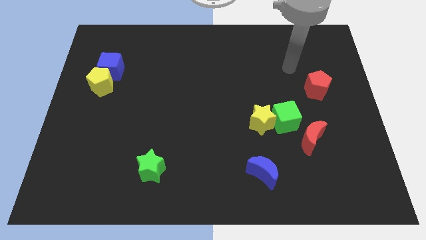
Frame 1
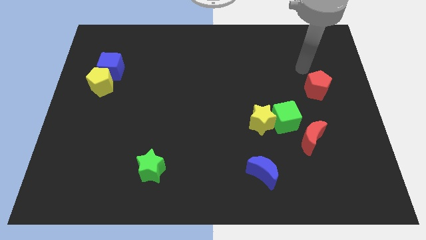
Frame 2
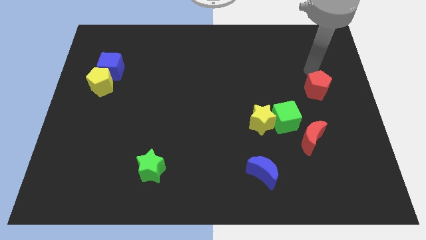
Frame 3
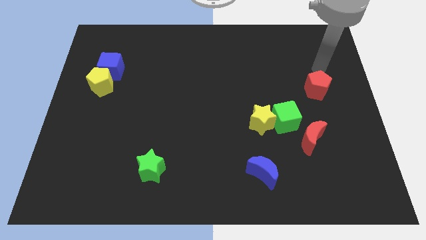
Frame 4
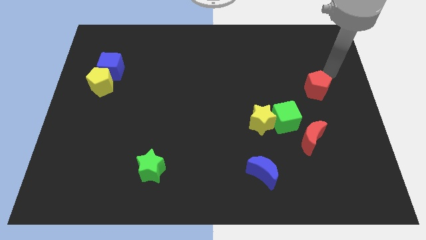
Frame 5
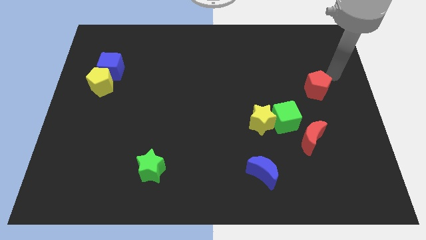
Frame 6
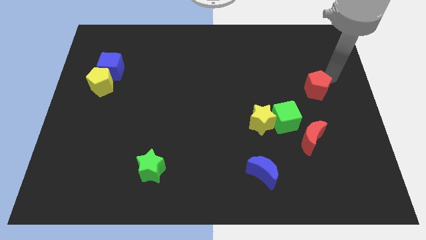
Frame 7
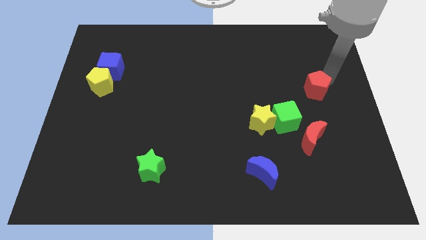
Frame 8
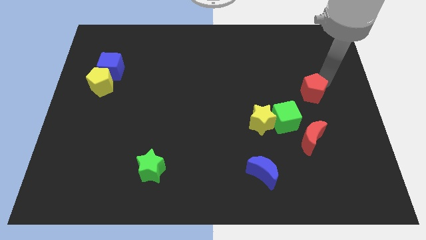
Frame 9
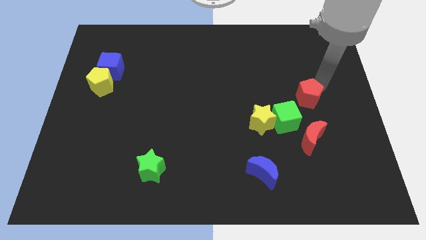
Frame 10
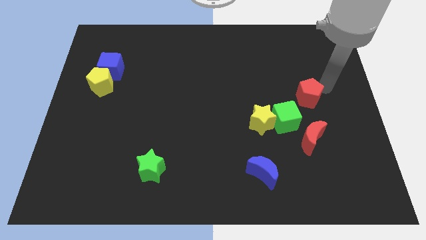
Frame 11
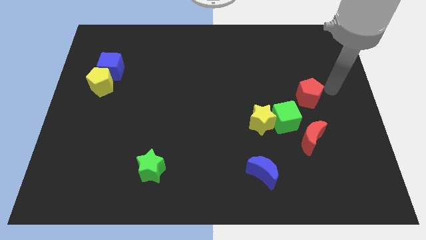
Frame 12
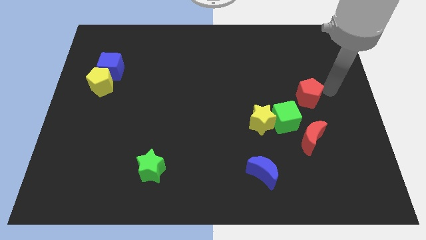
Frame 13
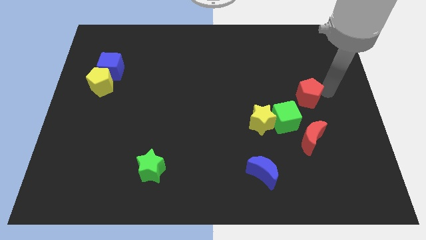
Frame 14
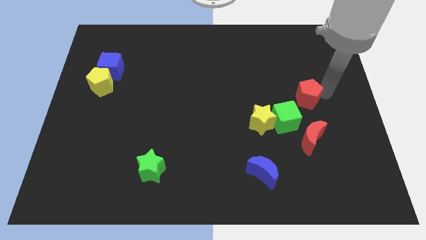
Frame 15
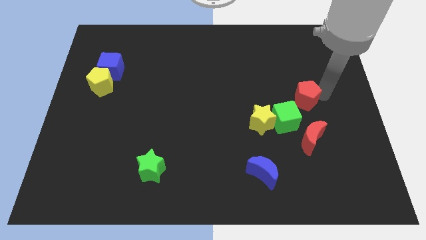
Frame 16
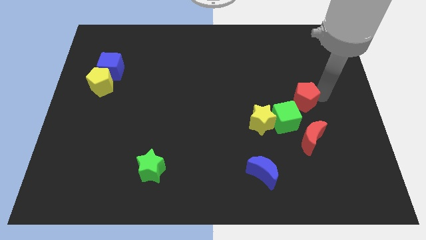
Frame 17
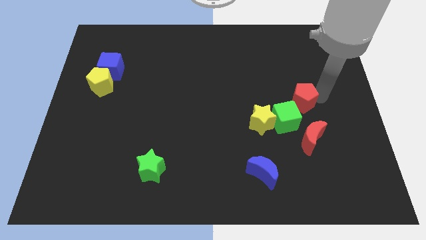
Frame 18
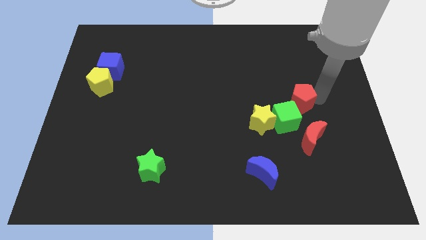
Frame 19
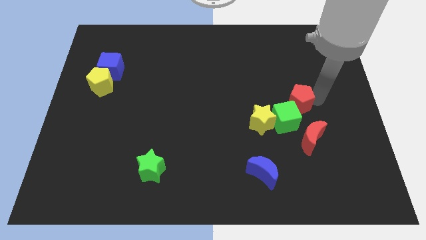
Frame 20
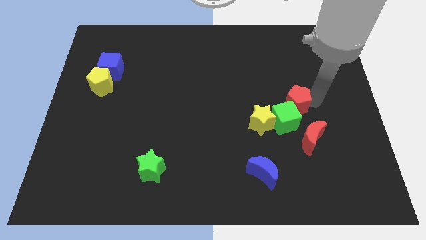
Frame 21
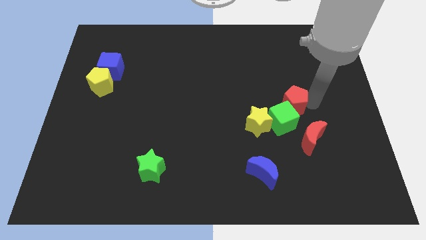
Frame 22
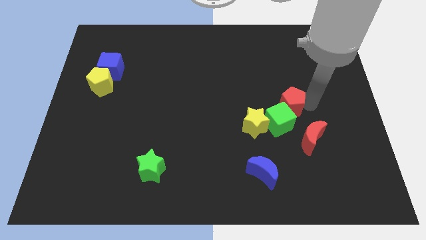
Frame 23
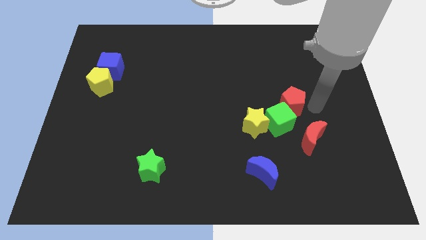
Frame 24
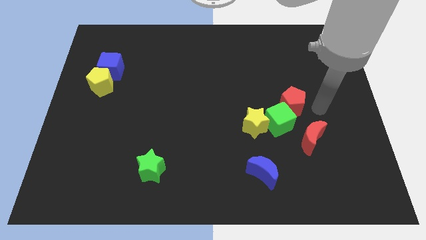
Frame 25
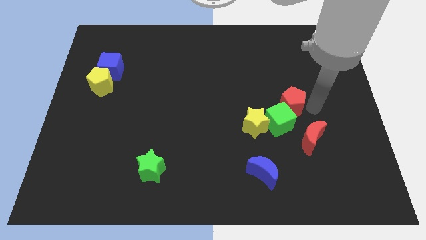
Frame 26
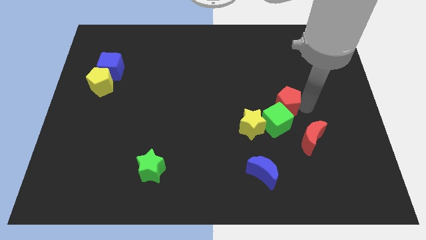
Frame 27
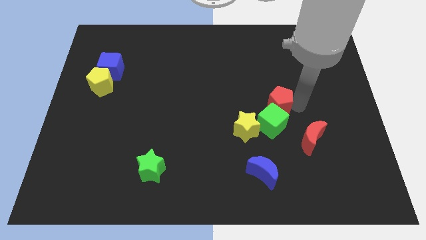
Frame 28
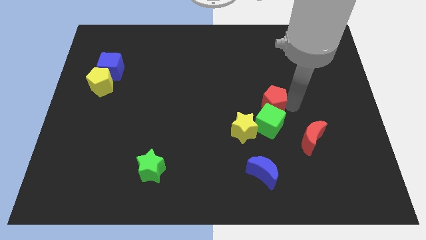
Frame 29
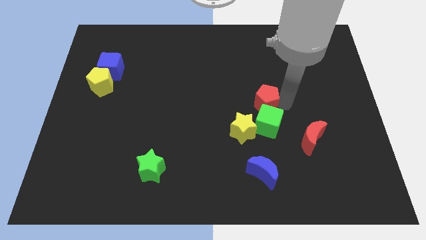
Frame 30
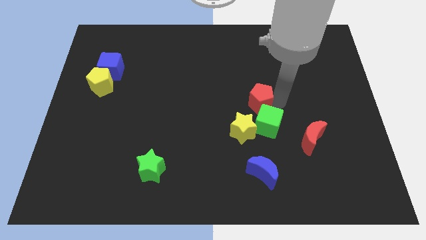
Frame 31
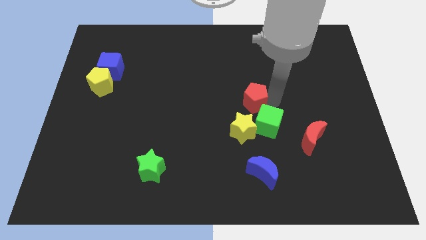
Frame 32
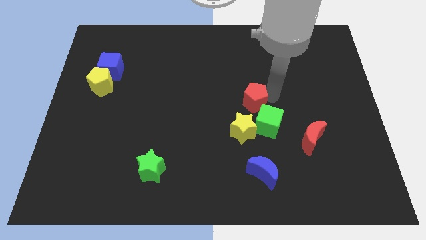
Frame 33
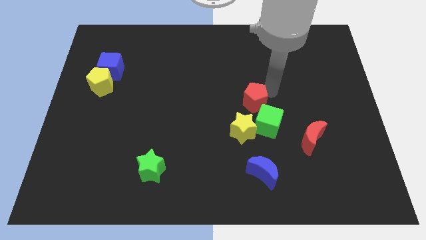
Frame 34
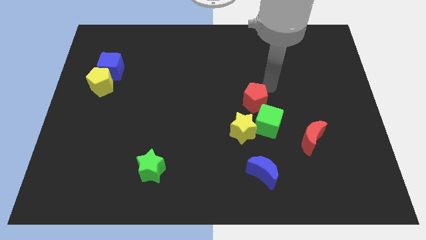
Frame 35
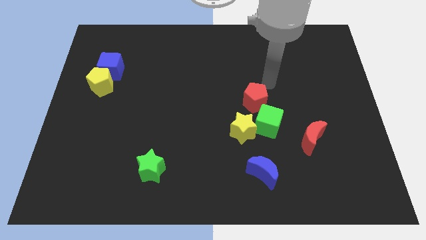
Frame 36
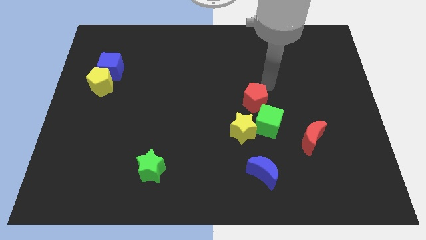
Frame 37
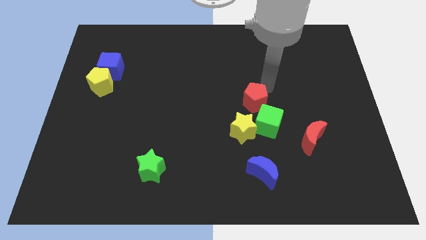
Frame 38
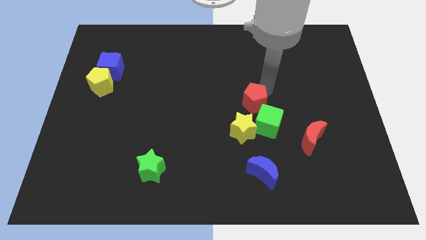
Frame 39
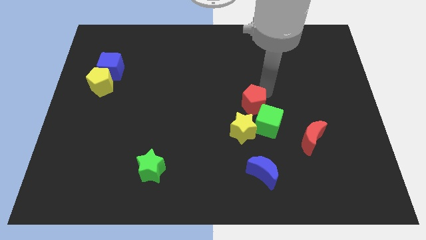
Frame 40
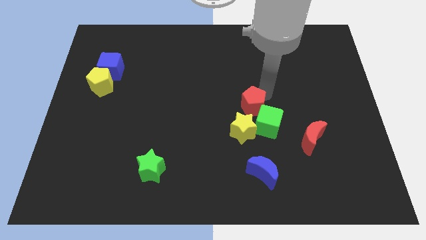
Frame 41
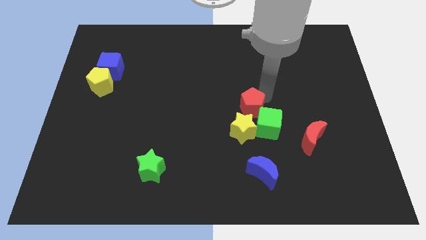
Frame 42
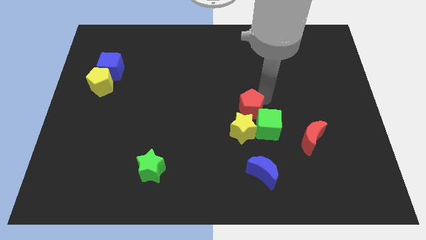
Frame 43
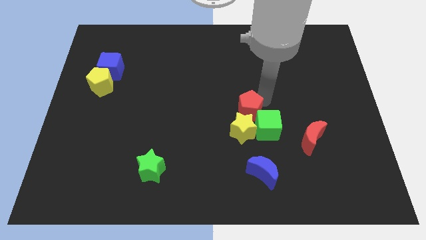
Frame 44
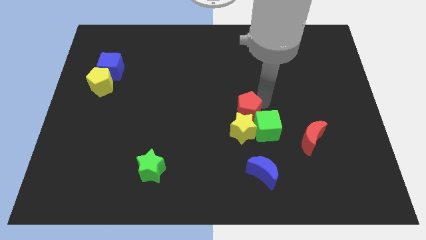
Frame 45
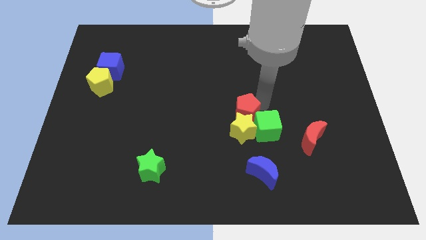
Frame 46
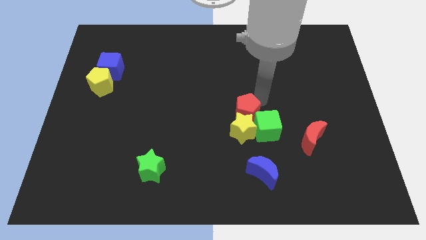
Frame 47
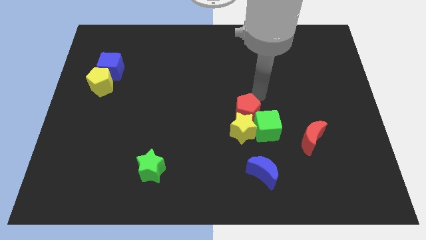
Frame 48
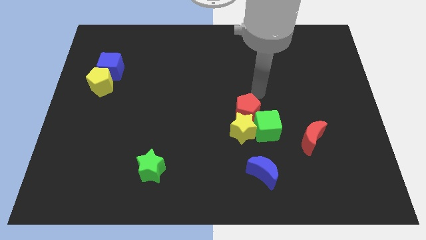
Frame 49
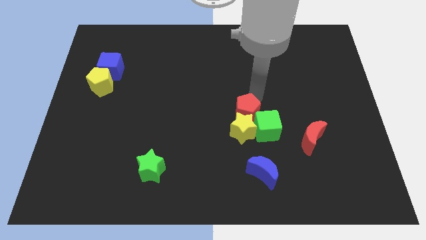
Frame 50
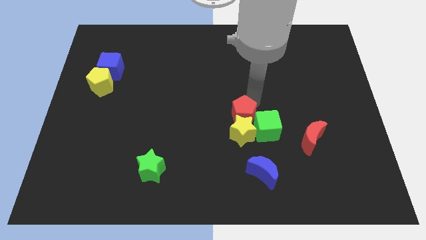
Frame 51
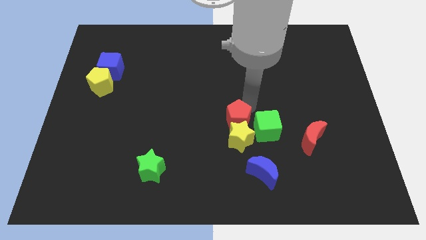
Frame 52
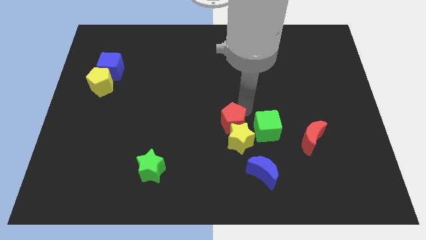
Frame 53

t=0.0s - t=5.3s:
slide the red pentagon diagonally down and to the left

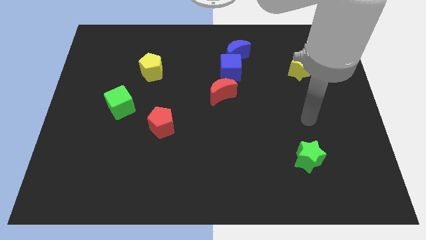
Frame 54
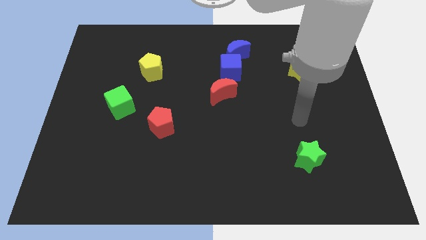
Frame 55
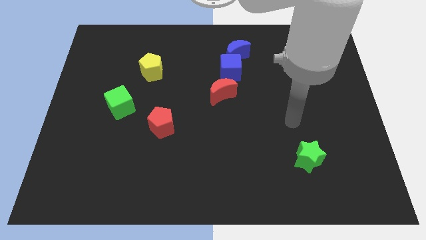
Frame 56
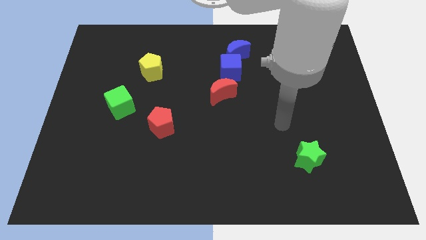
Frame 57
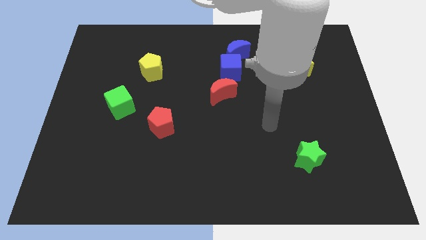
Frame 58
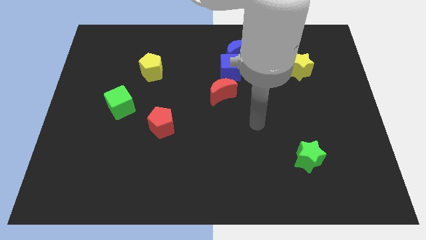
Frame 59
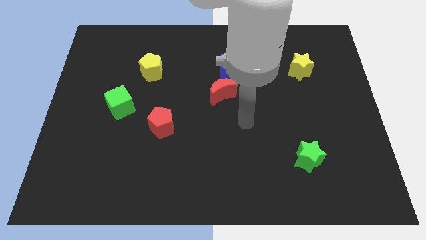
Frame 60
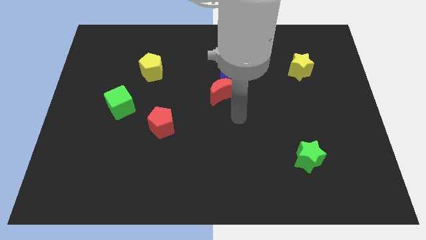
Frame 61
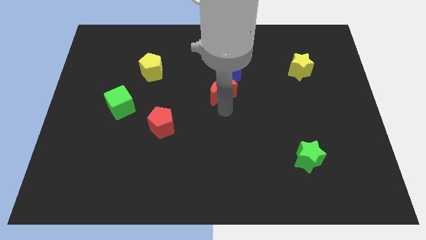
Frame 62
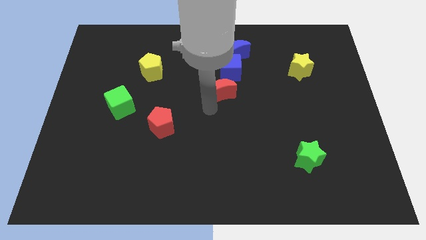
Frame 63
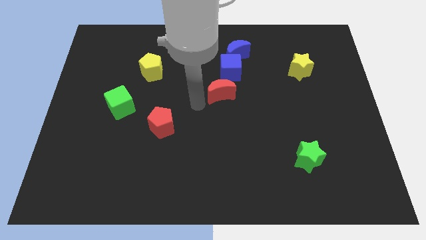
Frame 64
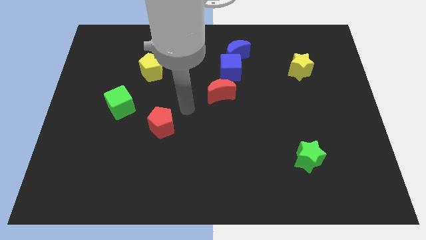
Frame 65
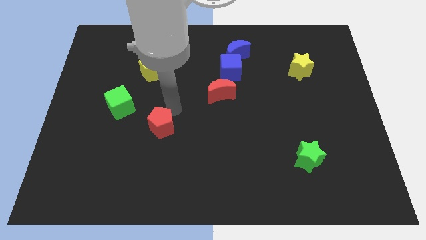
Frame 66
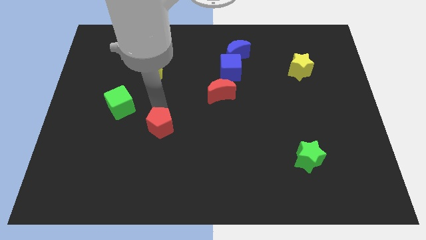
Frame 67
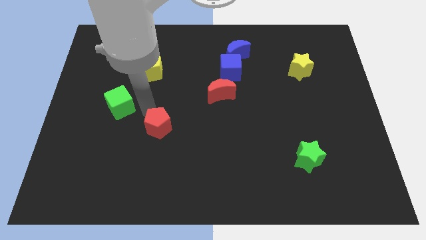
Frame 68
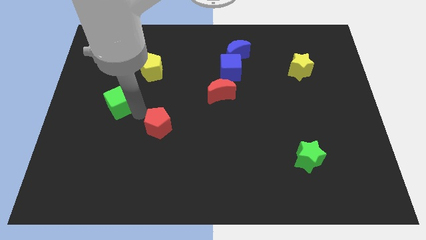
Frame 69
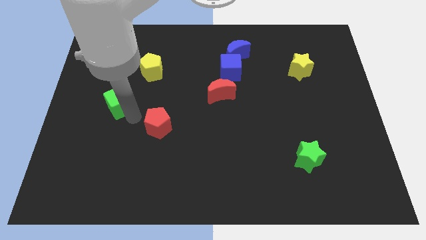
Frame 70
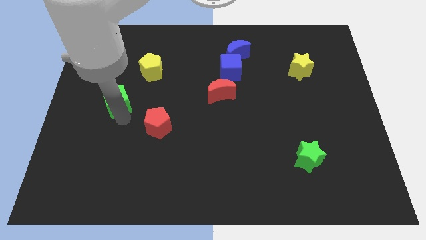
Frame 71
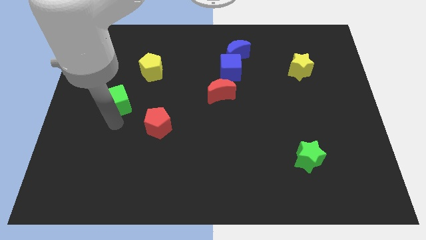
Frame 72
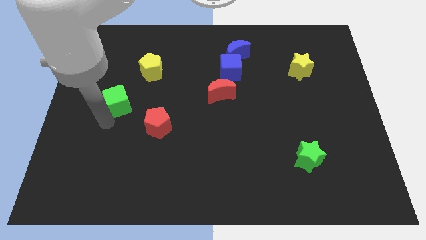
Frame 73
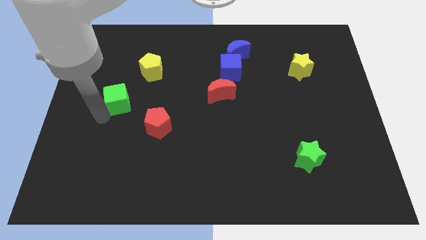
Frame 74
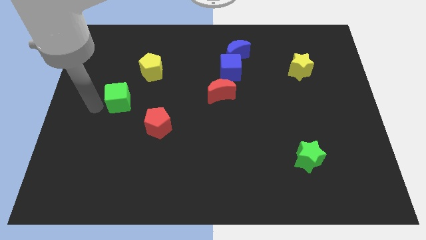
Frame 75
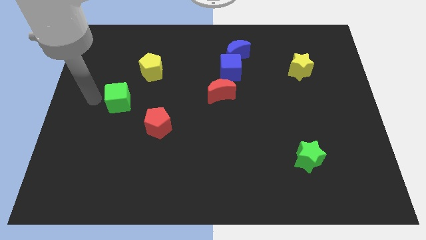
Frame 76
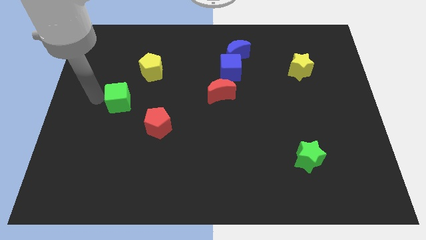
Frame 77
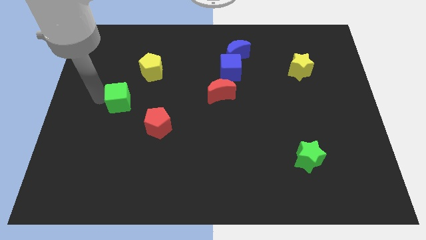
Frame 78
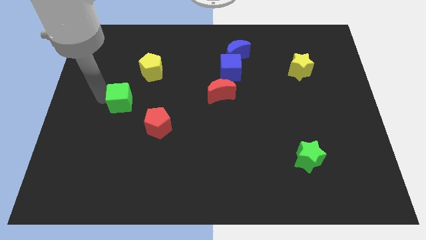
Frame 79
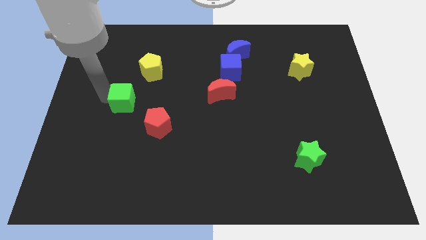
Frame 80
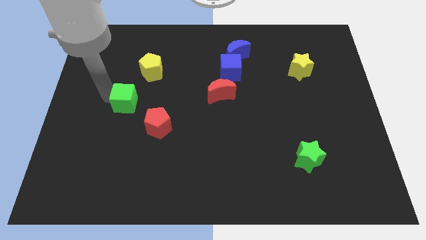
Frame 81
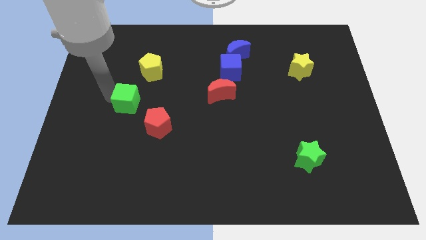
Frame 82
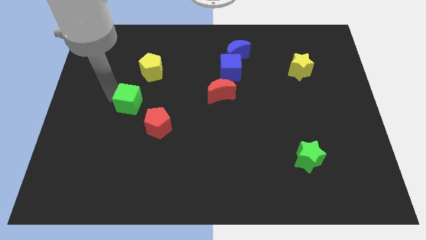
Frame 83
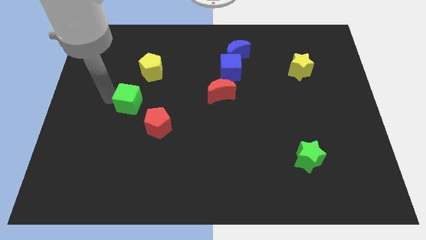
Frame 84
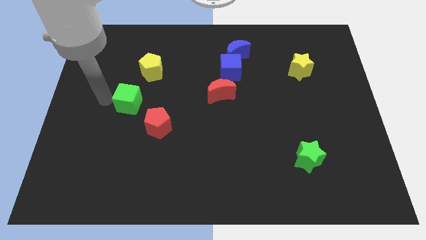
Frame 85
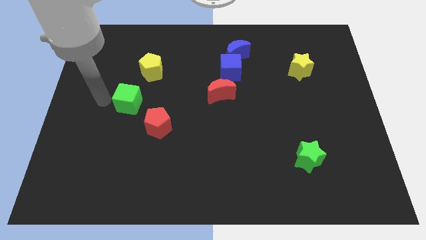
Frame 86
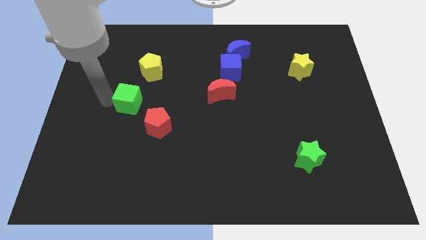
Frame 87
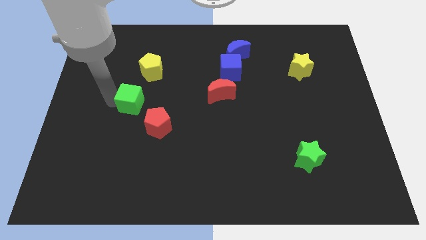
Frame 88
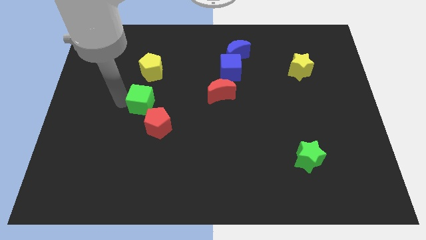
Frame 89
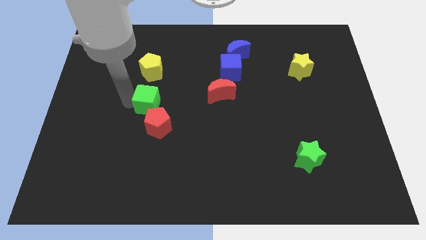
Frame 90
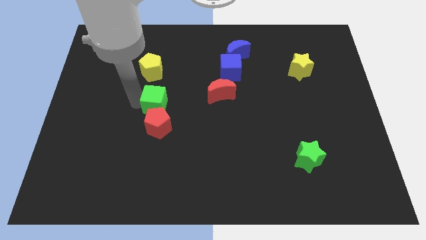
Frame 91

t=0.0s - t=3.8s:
slightly push the green cube right
